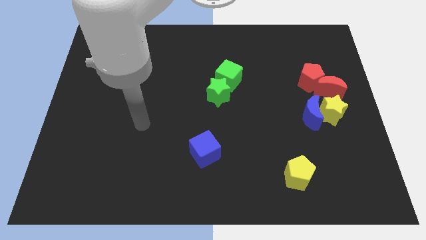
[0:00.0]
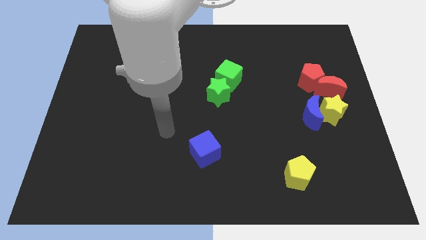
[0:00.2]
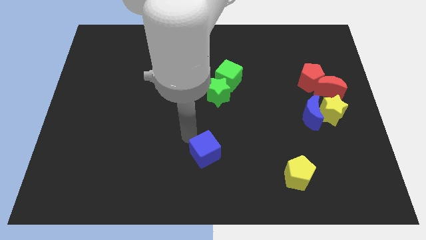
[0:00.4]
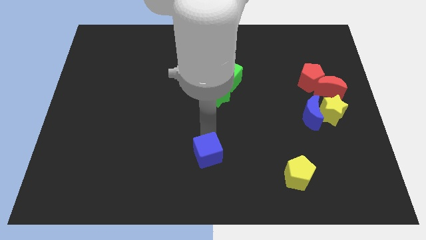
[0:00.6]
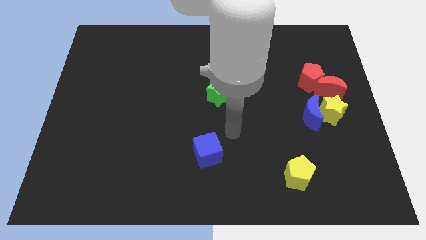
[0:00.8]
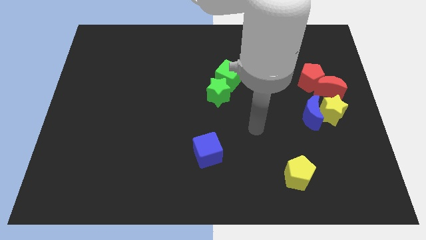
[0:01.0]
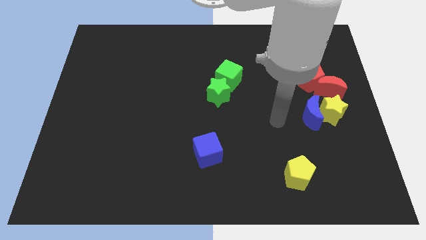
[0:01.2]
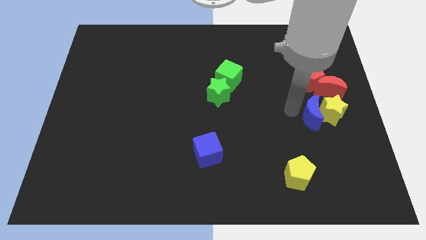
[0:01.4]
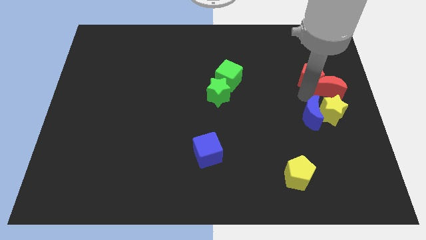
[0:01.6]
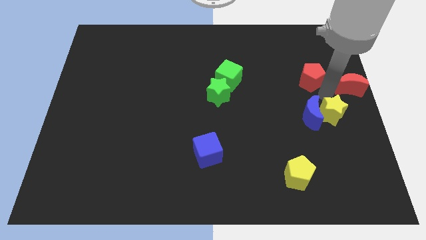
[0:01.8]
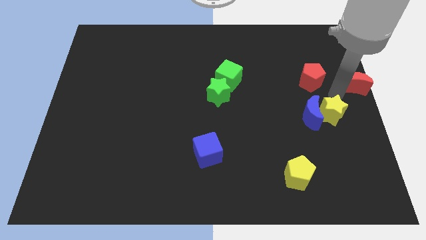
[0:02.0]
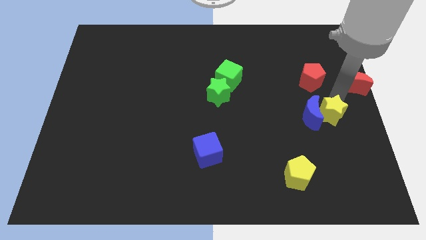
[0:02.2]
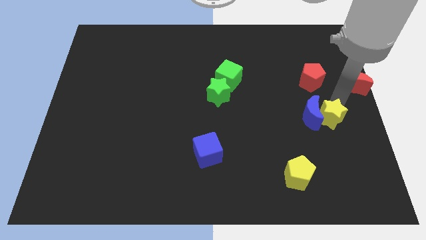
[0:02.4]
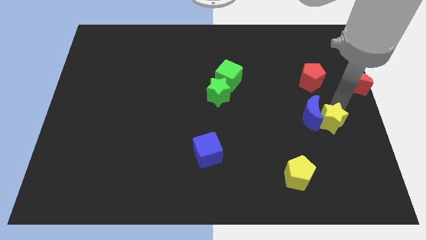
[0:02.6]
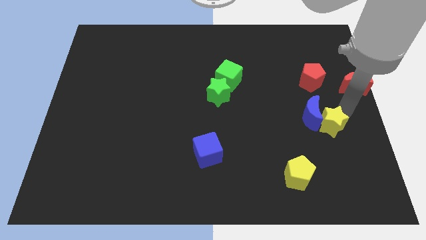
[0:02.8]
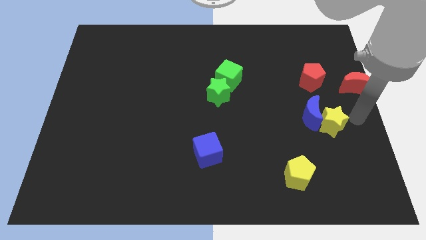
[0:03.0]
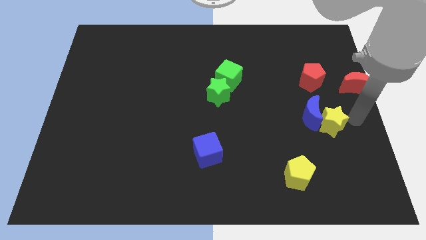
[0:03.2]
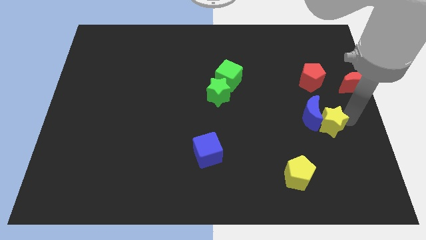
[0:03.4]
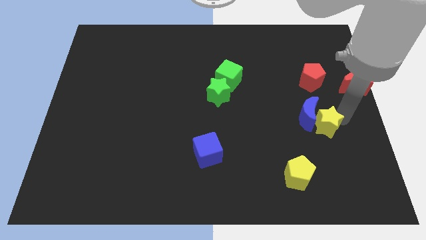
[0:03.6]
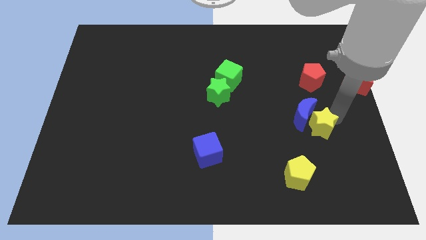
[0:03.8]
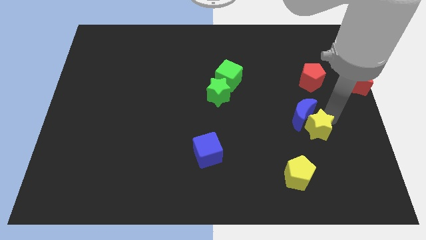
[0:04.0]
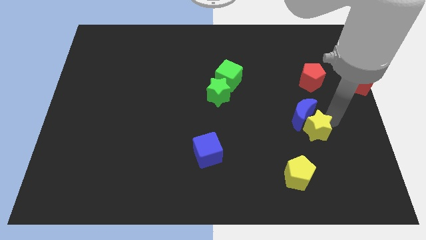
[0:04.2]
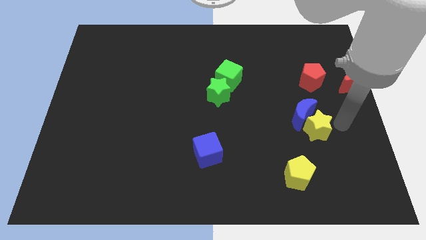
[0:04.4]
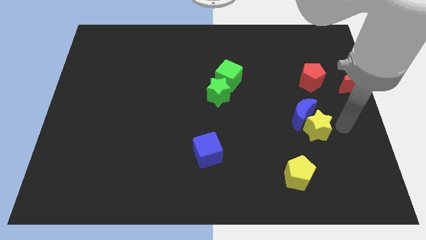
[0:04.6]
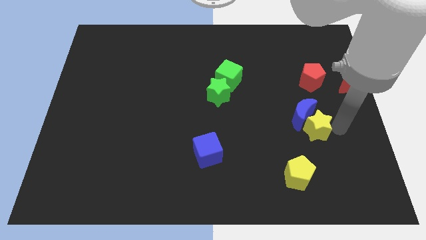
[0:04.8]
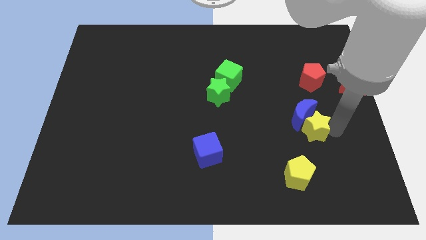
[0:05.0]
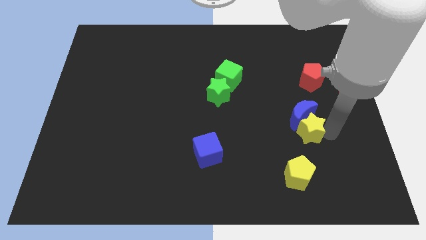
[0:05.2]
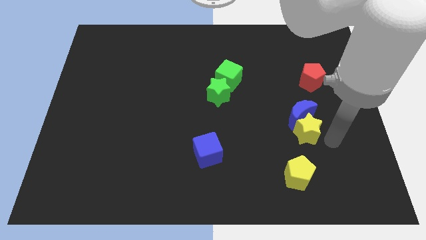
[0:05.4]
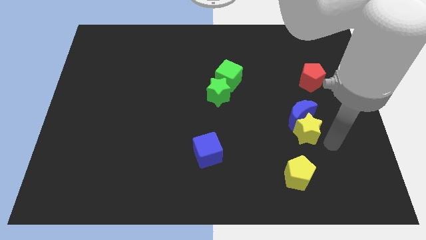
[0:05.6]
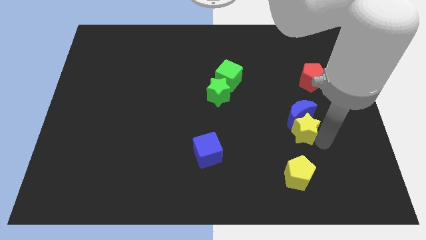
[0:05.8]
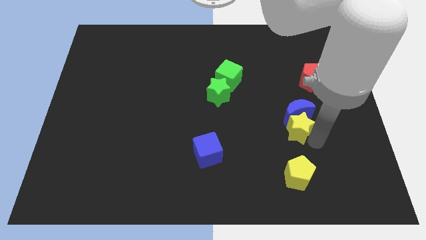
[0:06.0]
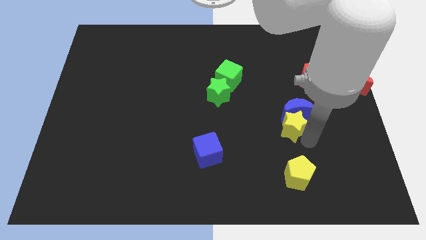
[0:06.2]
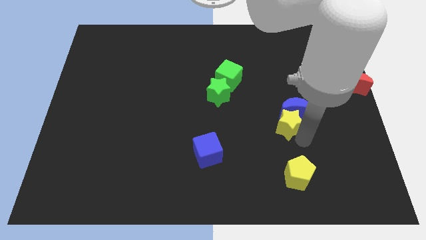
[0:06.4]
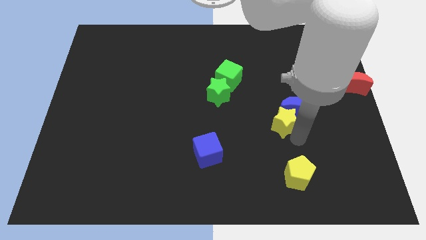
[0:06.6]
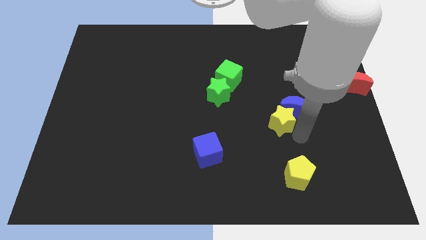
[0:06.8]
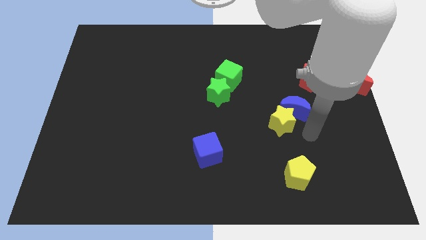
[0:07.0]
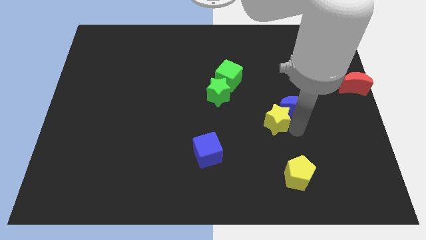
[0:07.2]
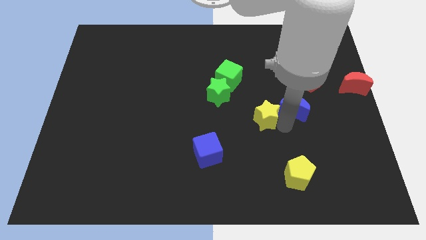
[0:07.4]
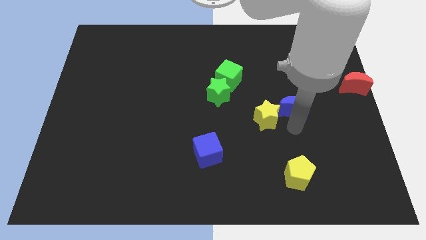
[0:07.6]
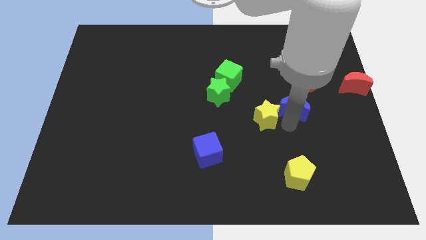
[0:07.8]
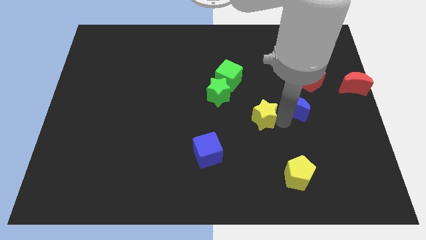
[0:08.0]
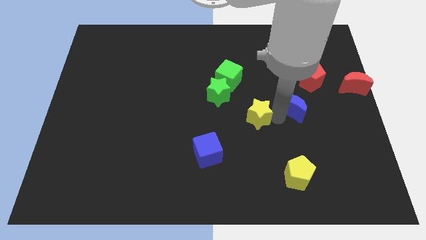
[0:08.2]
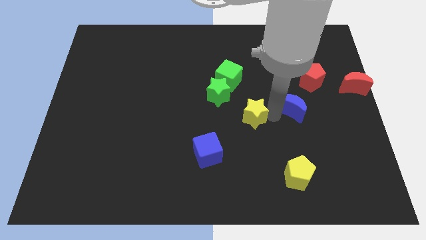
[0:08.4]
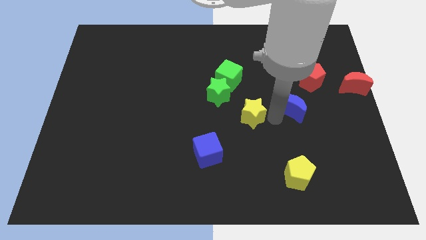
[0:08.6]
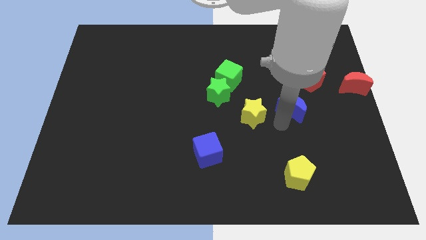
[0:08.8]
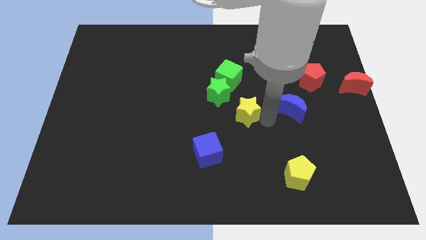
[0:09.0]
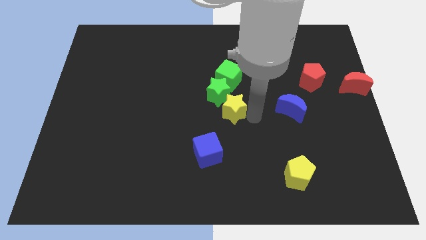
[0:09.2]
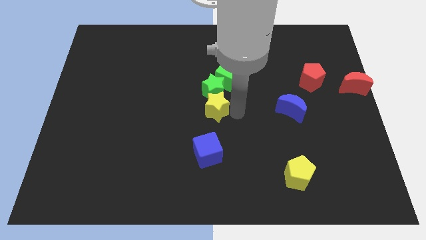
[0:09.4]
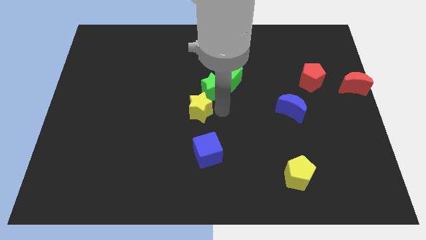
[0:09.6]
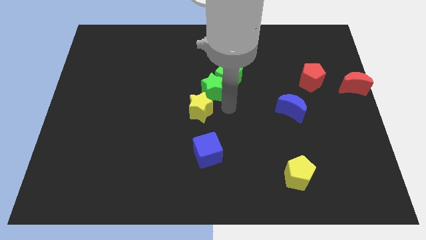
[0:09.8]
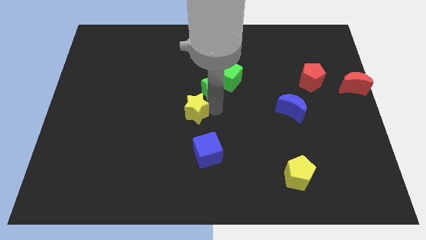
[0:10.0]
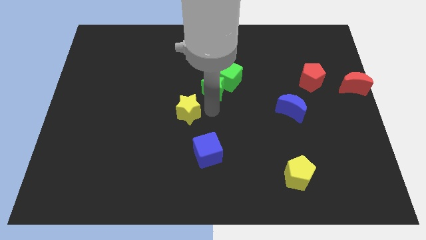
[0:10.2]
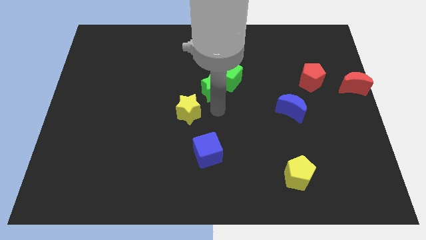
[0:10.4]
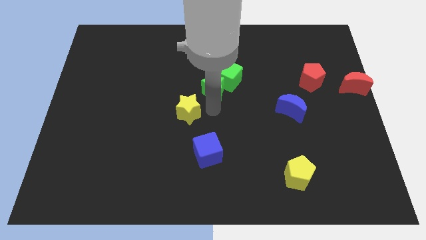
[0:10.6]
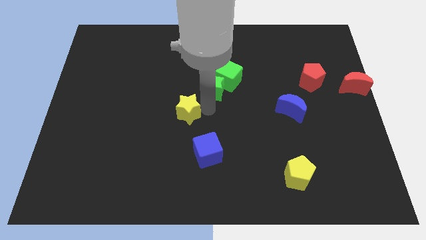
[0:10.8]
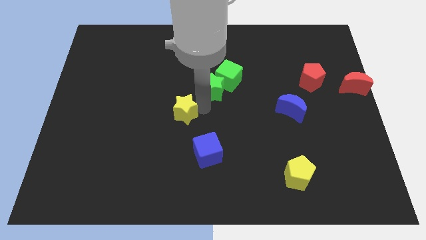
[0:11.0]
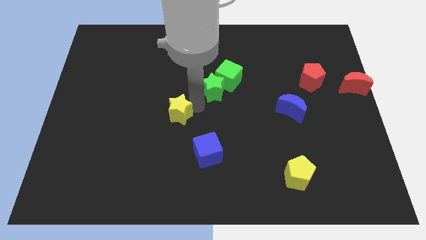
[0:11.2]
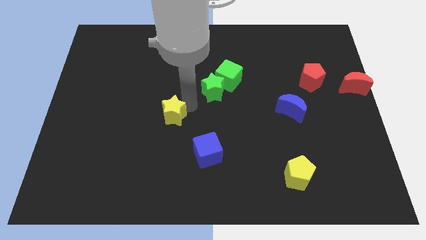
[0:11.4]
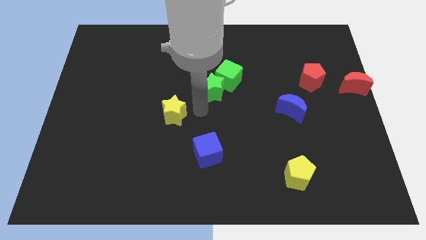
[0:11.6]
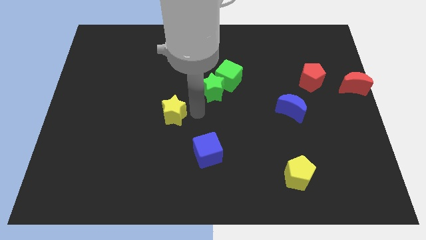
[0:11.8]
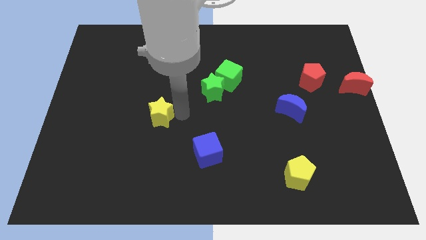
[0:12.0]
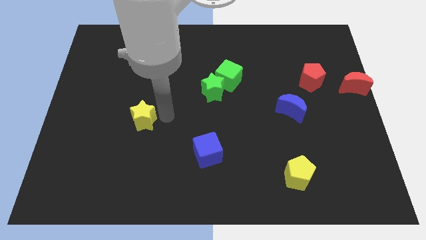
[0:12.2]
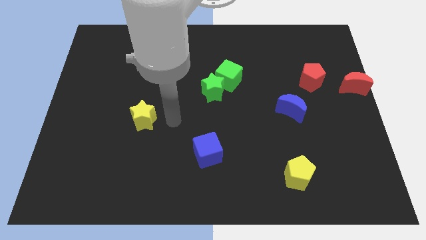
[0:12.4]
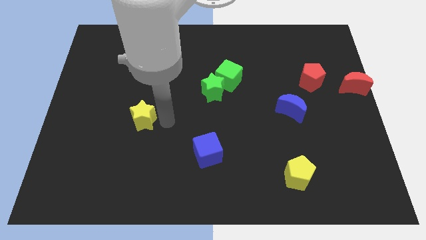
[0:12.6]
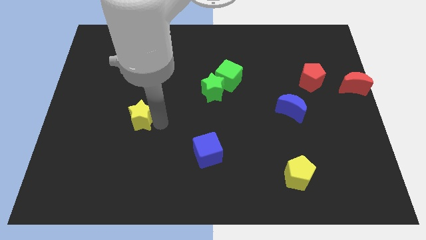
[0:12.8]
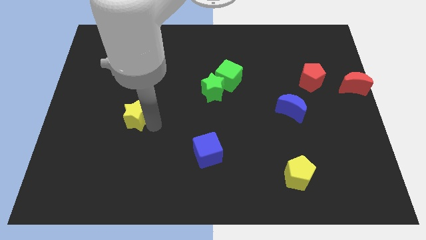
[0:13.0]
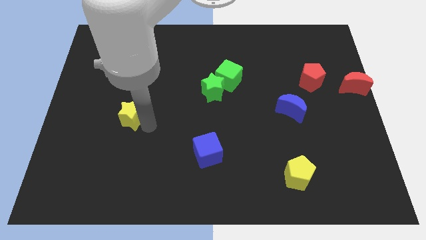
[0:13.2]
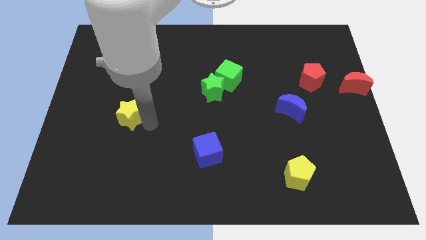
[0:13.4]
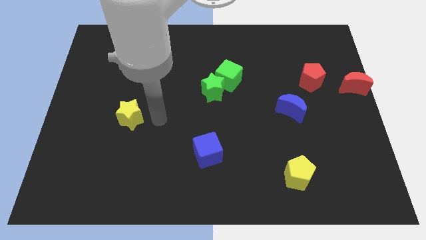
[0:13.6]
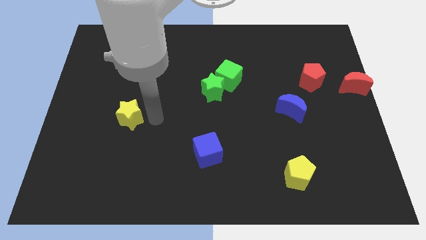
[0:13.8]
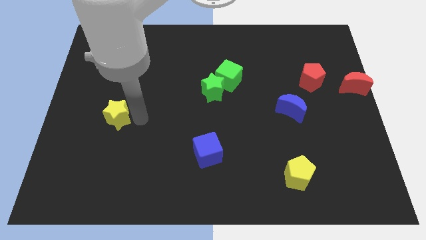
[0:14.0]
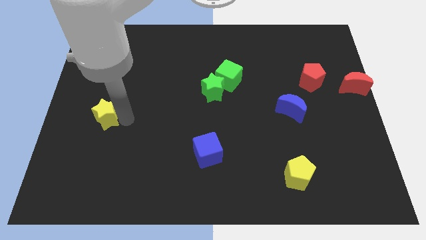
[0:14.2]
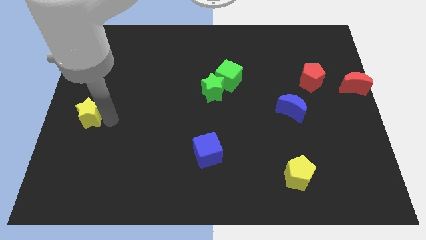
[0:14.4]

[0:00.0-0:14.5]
move the yellow star to the left side
